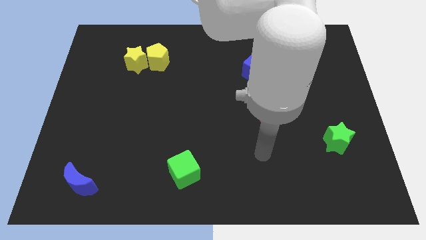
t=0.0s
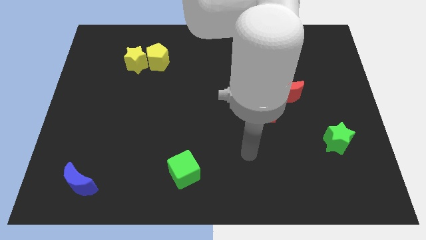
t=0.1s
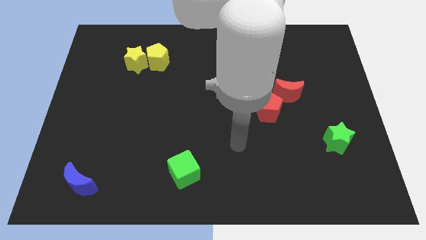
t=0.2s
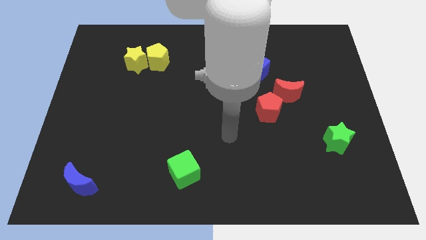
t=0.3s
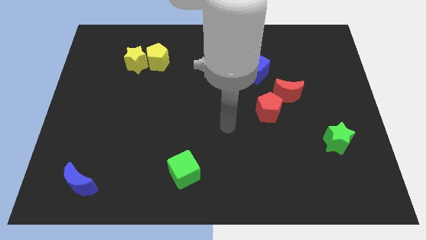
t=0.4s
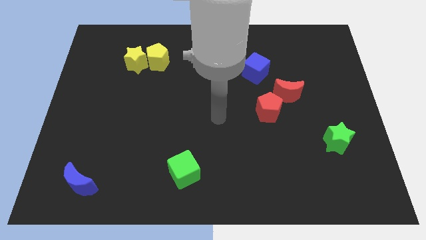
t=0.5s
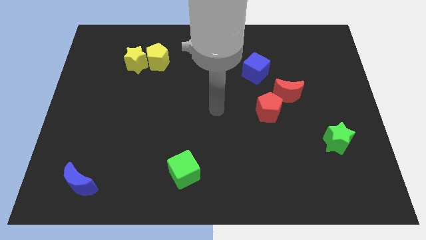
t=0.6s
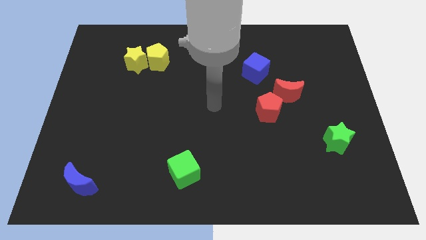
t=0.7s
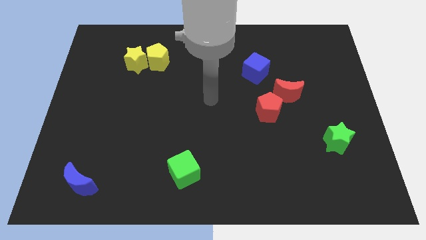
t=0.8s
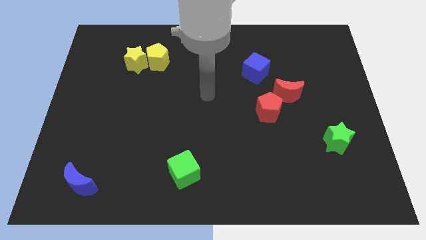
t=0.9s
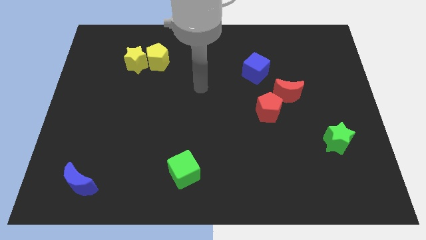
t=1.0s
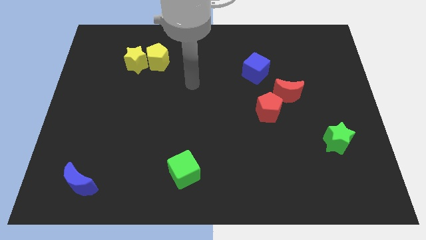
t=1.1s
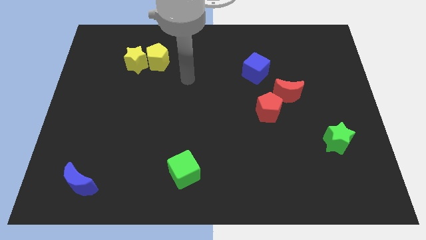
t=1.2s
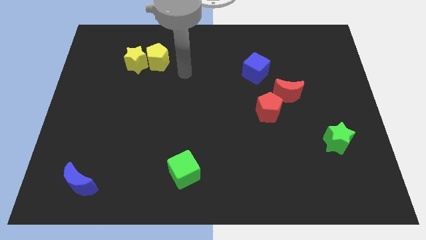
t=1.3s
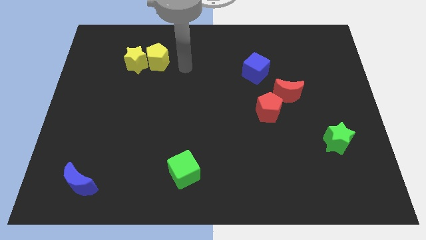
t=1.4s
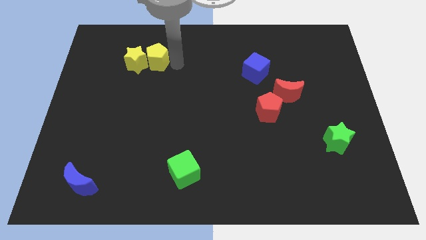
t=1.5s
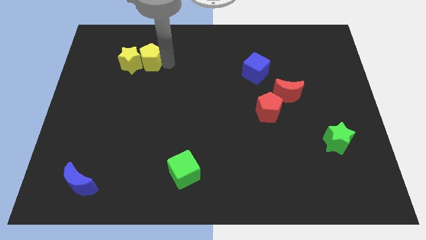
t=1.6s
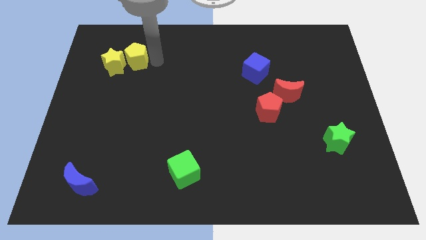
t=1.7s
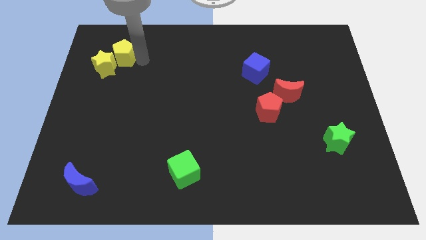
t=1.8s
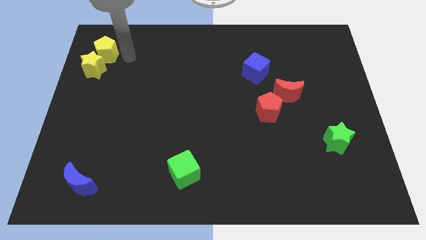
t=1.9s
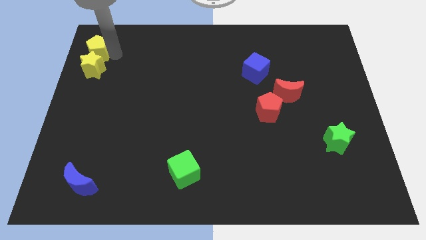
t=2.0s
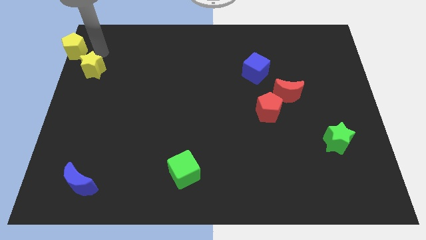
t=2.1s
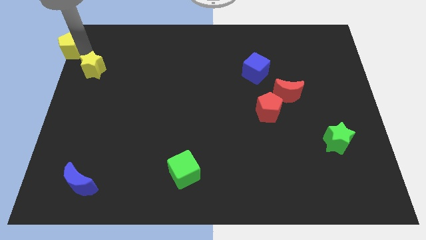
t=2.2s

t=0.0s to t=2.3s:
separate the yellow star from the yellow pentagon

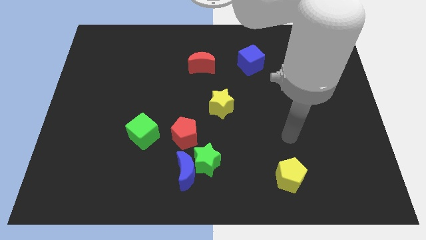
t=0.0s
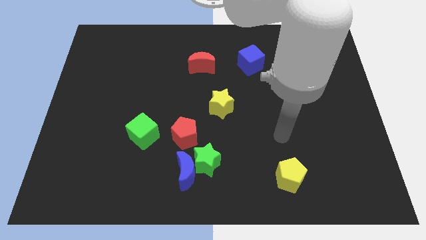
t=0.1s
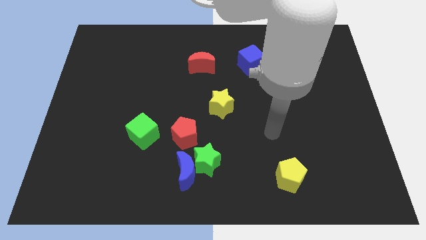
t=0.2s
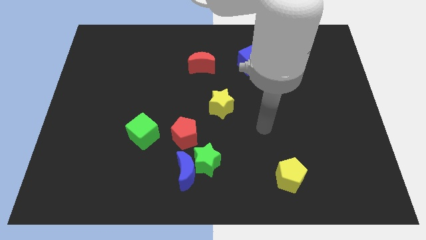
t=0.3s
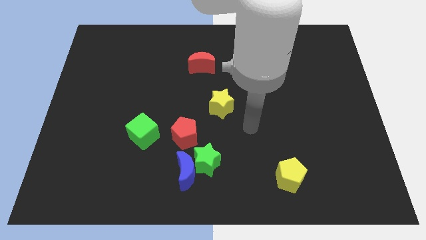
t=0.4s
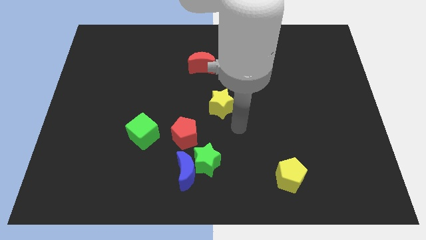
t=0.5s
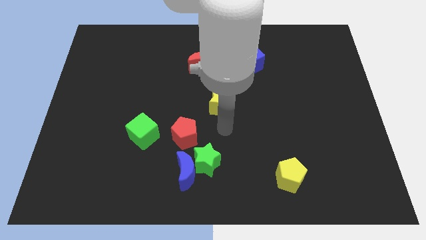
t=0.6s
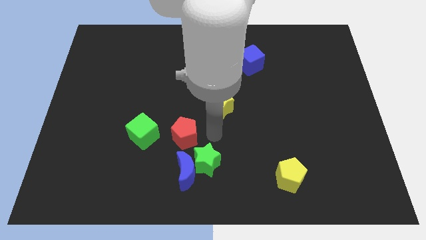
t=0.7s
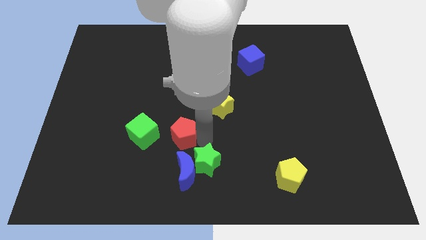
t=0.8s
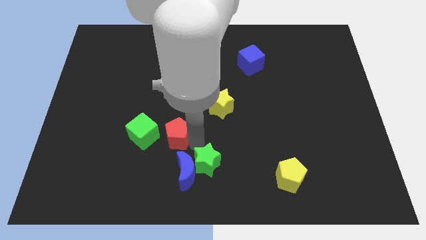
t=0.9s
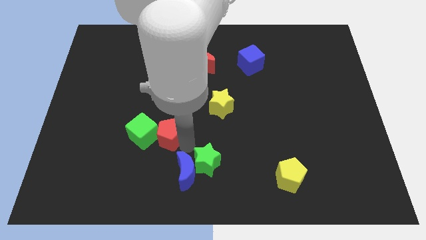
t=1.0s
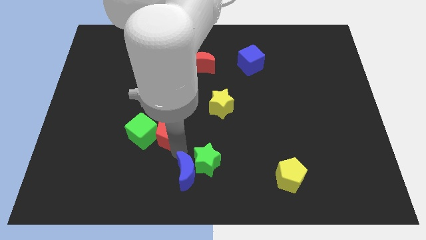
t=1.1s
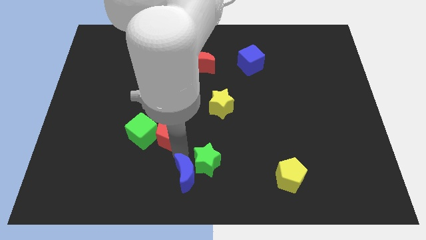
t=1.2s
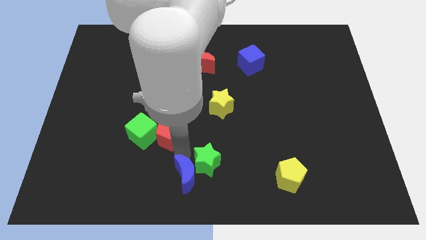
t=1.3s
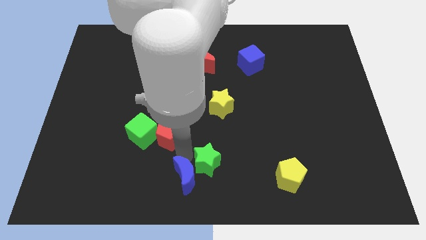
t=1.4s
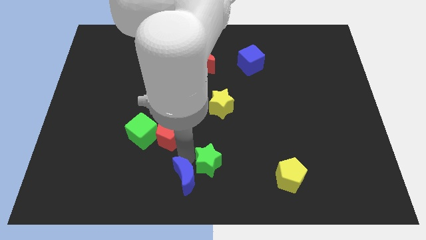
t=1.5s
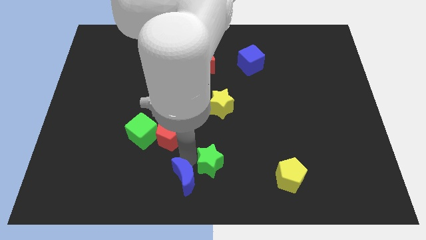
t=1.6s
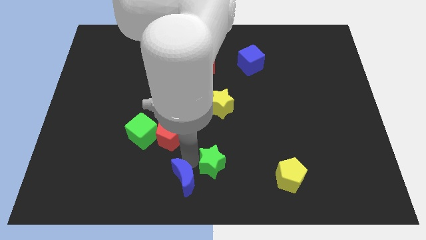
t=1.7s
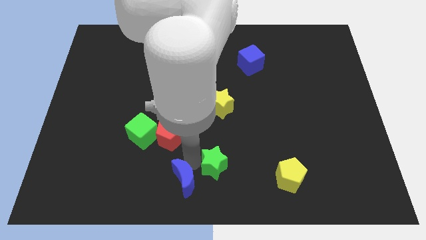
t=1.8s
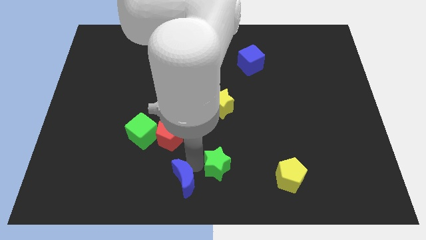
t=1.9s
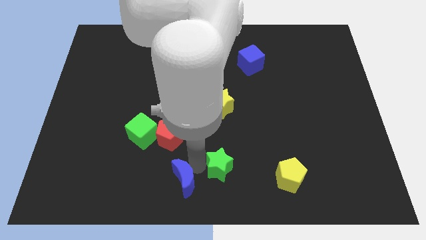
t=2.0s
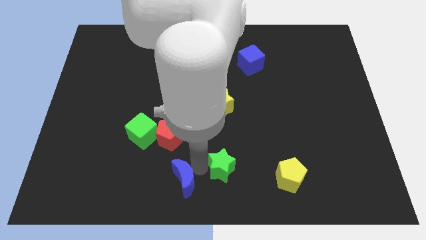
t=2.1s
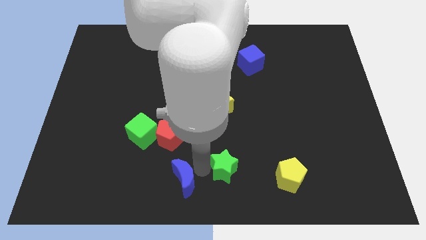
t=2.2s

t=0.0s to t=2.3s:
separate the green star from the blue moon and red pentagon

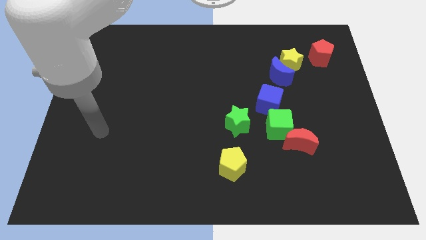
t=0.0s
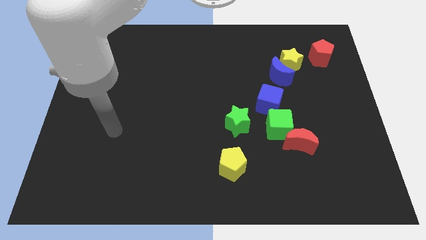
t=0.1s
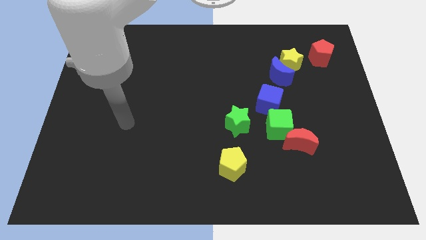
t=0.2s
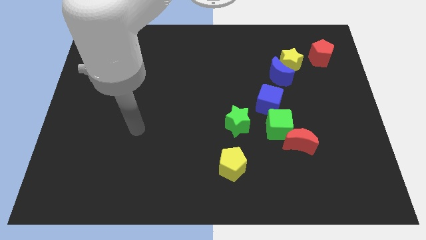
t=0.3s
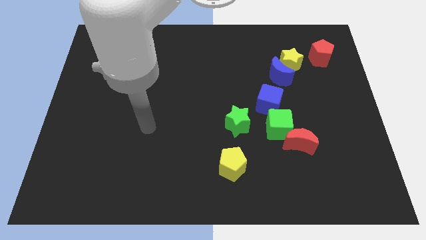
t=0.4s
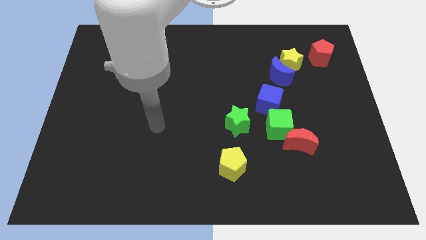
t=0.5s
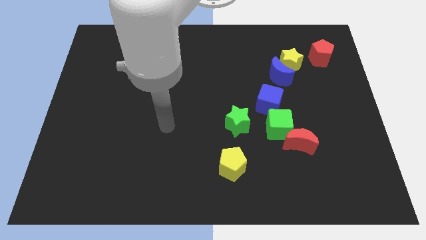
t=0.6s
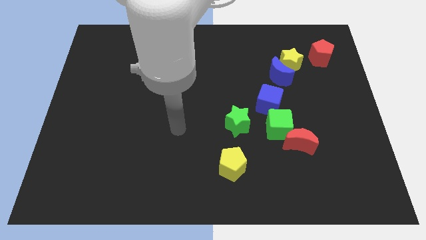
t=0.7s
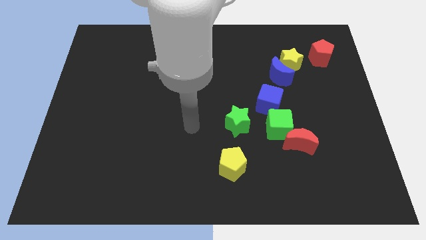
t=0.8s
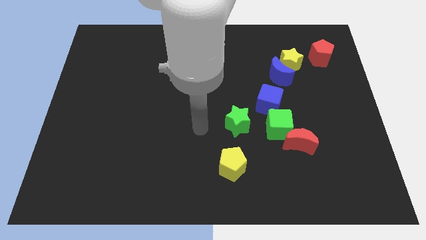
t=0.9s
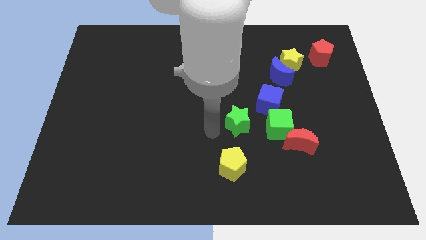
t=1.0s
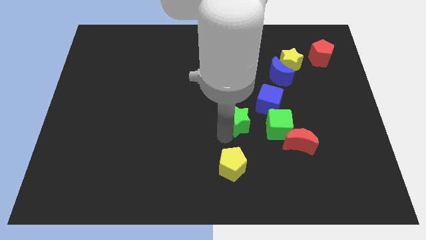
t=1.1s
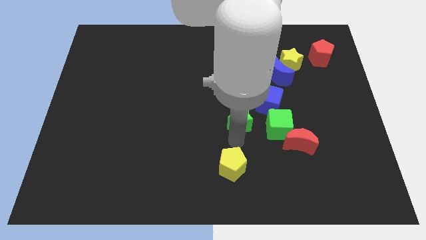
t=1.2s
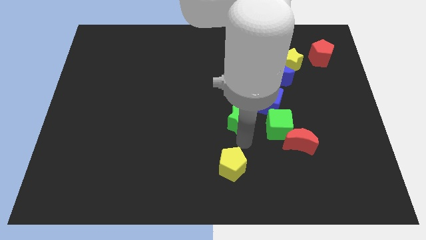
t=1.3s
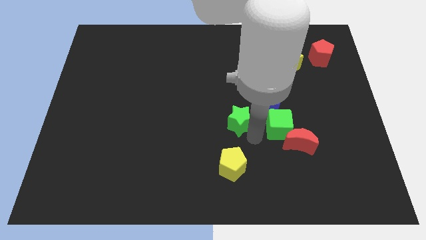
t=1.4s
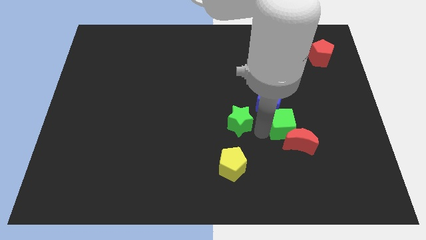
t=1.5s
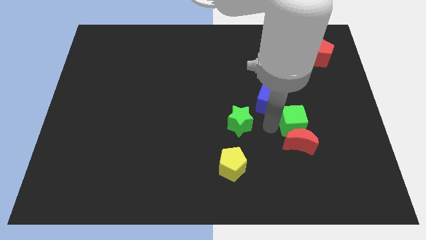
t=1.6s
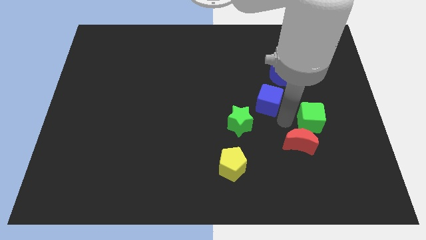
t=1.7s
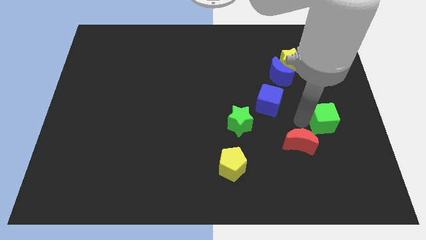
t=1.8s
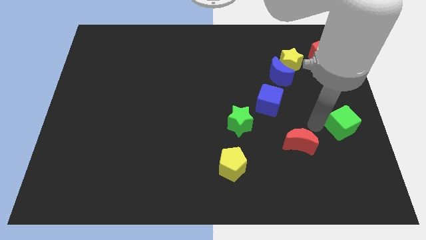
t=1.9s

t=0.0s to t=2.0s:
move the red moon away from the green cube

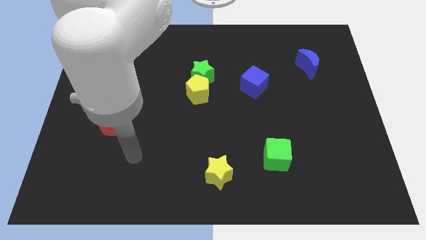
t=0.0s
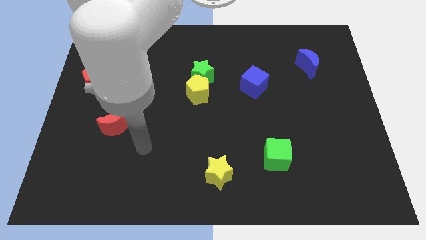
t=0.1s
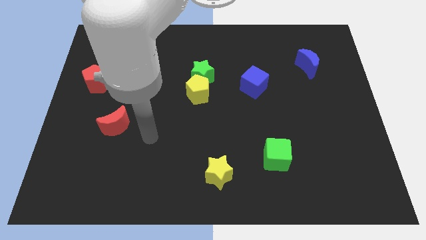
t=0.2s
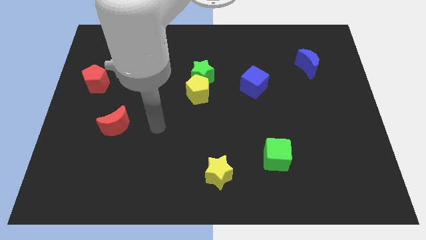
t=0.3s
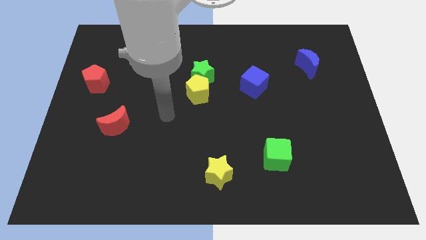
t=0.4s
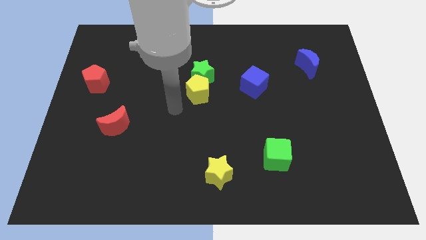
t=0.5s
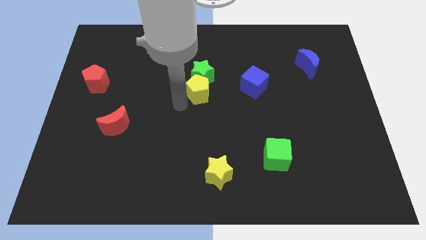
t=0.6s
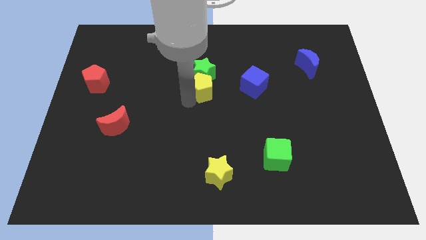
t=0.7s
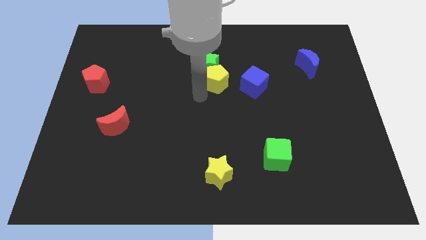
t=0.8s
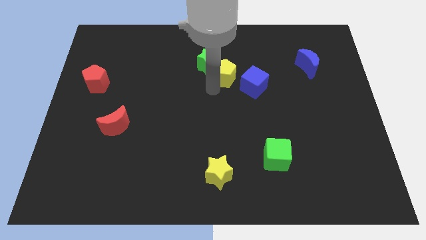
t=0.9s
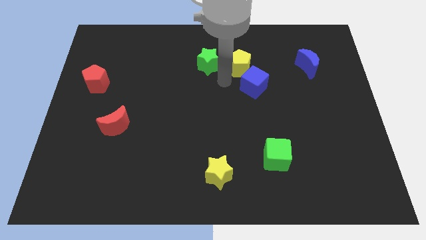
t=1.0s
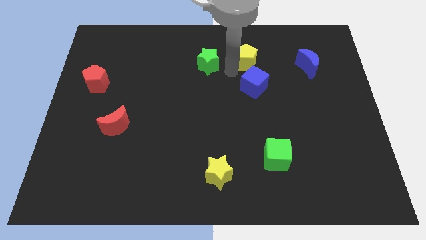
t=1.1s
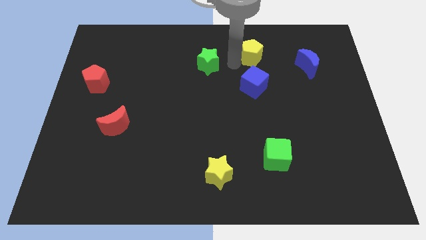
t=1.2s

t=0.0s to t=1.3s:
move the green star away from the yellow pentagon

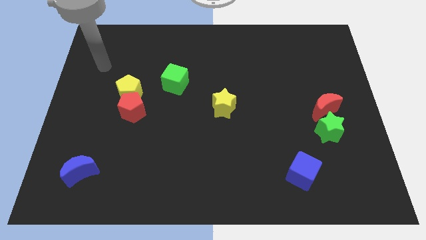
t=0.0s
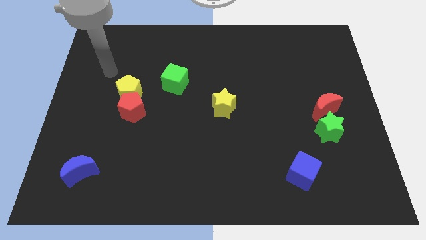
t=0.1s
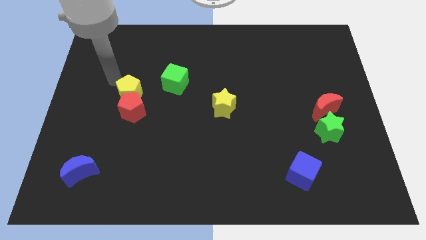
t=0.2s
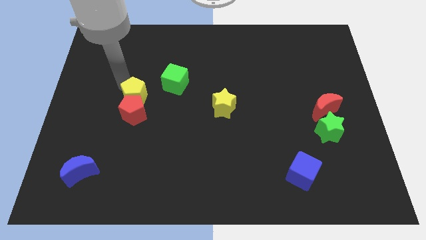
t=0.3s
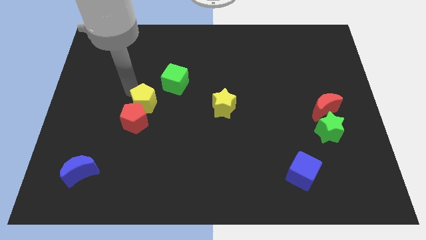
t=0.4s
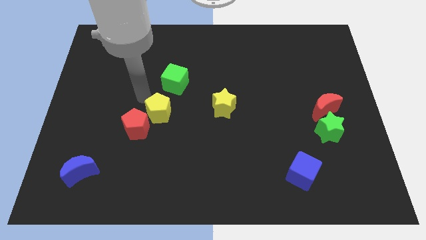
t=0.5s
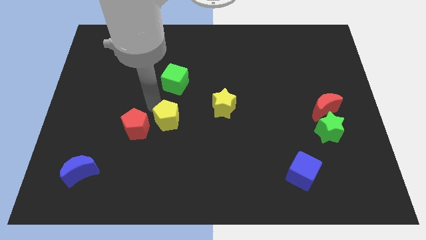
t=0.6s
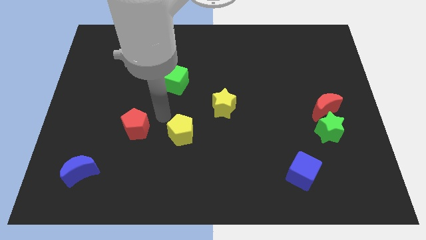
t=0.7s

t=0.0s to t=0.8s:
separate the red pentagon from the yellow pentagon

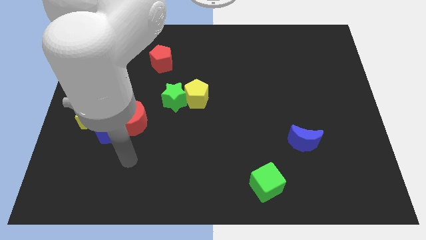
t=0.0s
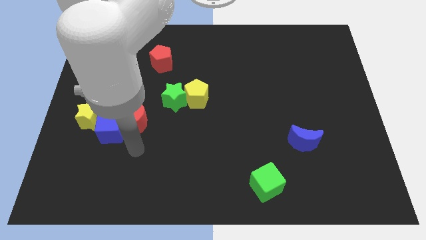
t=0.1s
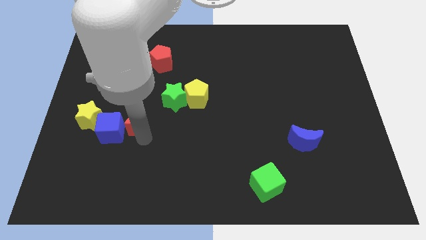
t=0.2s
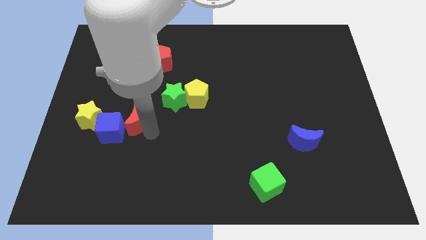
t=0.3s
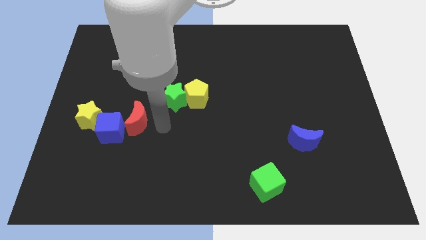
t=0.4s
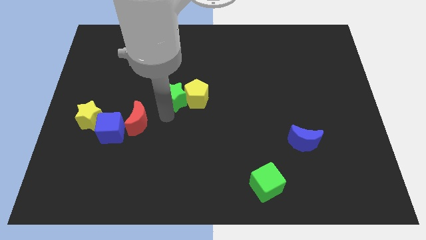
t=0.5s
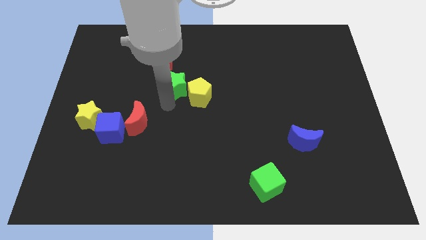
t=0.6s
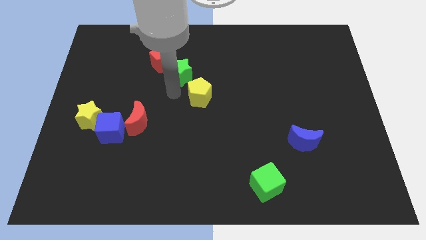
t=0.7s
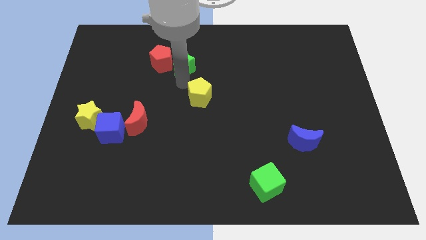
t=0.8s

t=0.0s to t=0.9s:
move the yellow pentagon away from the green star
